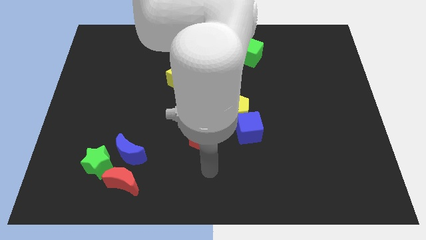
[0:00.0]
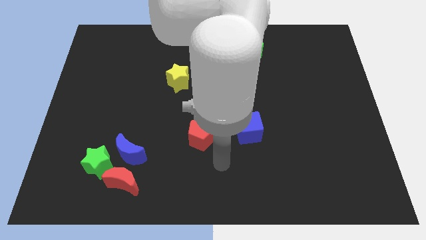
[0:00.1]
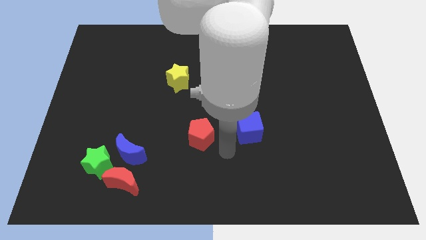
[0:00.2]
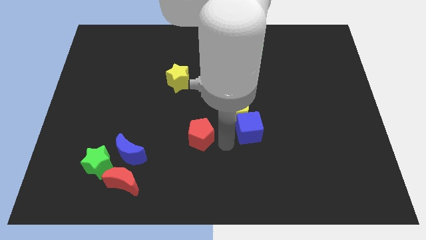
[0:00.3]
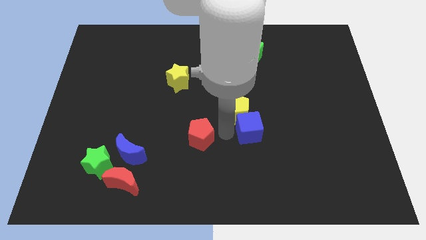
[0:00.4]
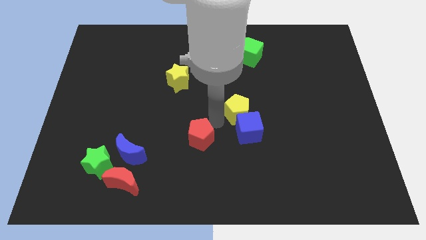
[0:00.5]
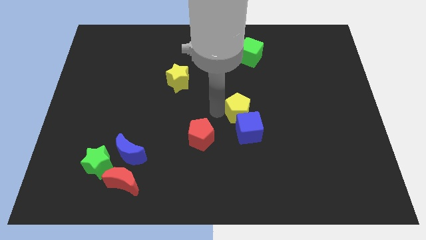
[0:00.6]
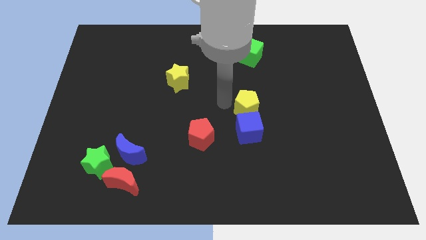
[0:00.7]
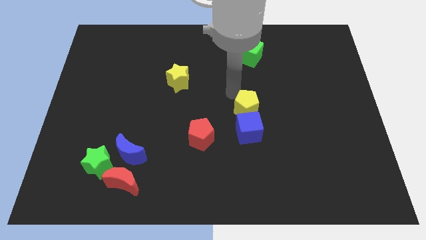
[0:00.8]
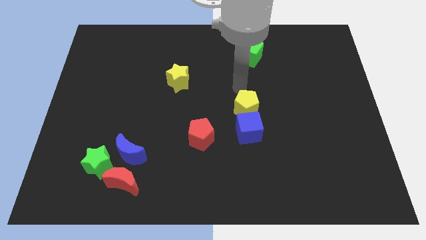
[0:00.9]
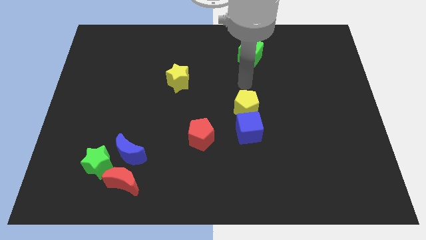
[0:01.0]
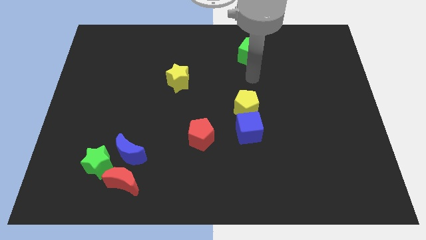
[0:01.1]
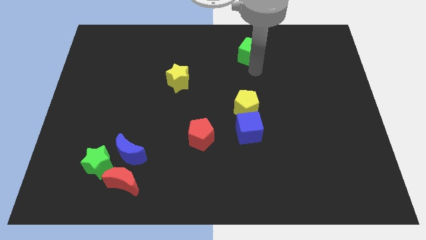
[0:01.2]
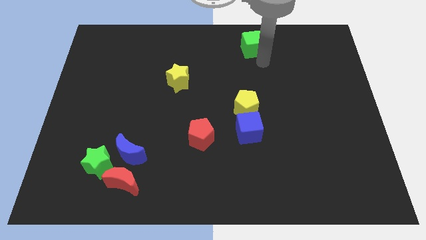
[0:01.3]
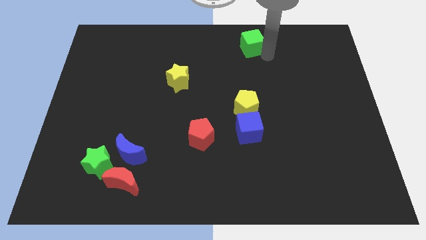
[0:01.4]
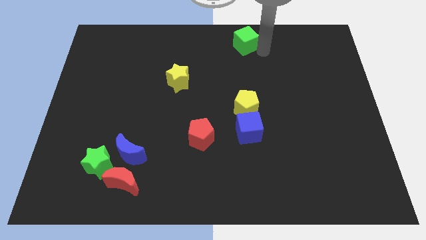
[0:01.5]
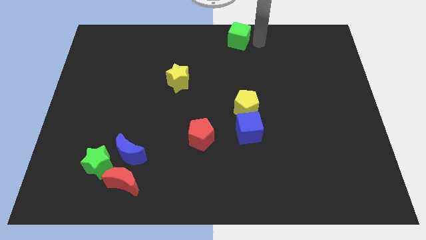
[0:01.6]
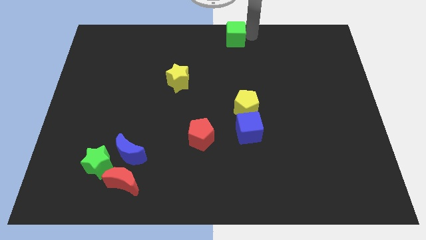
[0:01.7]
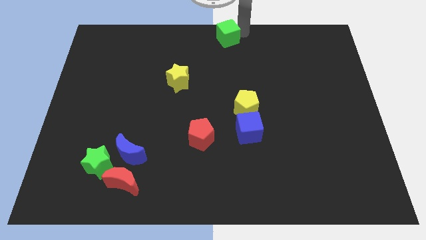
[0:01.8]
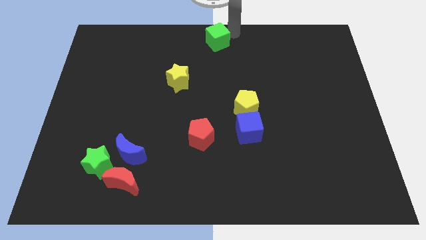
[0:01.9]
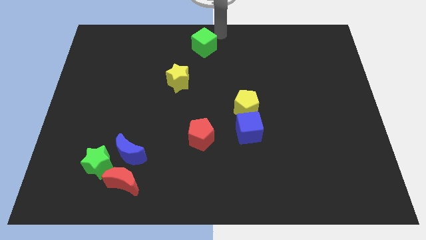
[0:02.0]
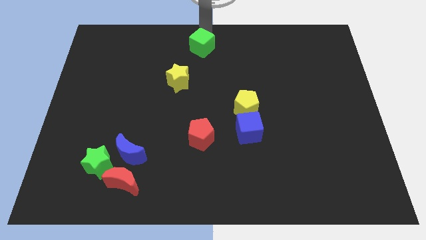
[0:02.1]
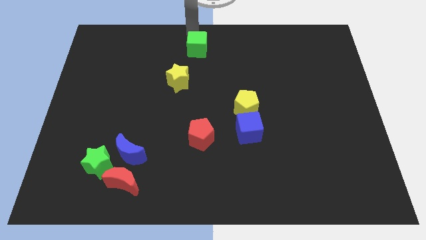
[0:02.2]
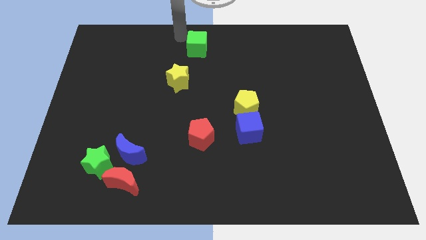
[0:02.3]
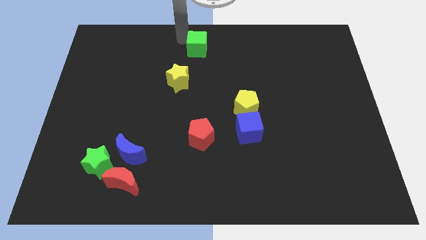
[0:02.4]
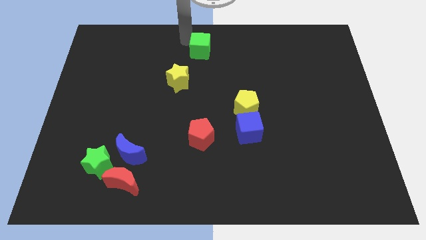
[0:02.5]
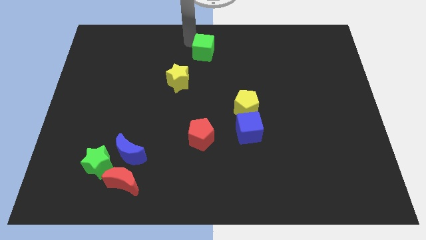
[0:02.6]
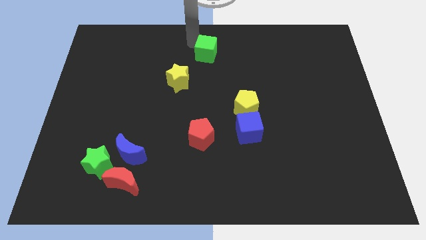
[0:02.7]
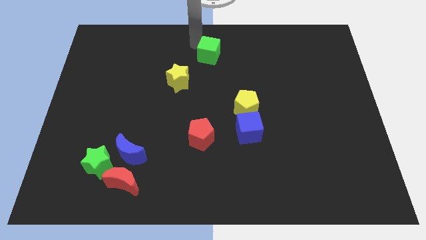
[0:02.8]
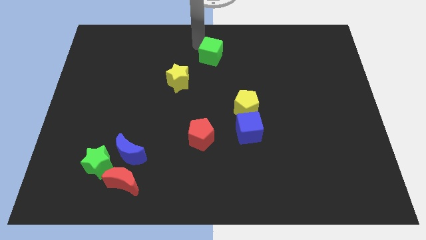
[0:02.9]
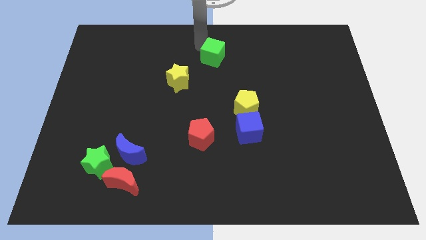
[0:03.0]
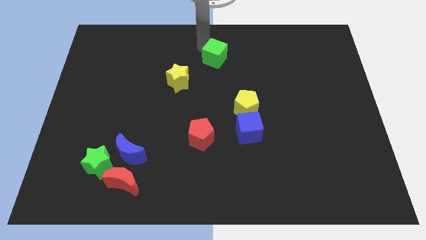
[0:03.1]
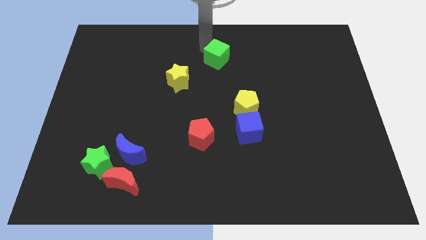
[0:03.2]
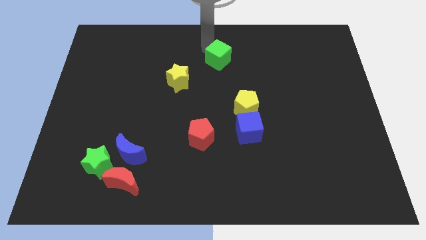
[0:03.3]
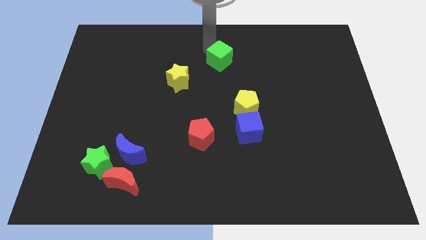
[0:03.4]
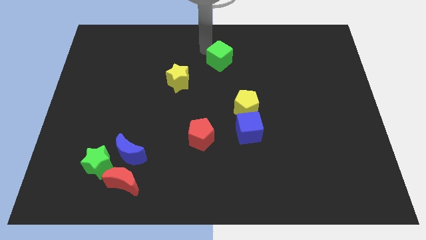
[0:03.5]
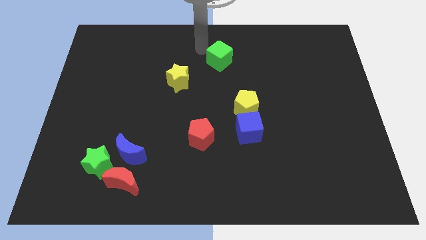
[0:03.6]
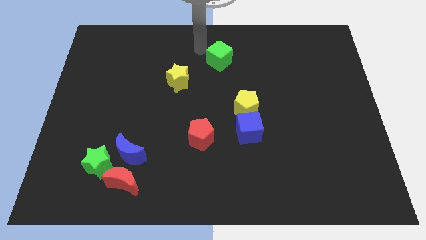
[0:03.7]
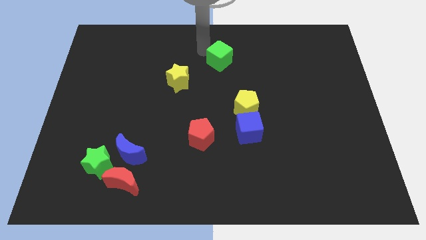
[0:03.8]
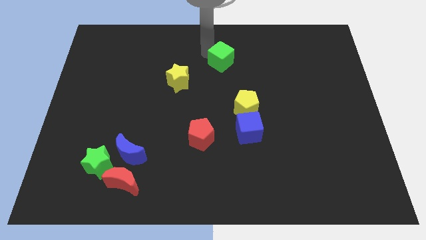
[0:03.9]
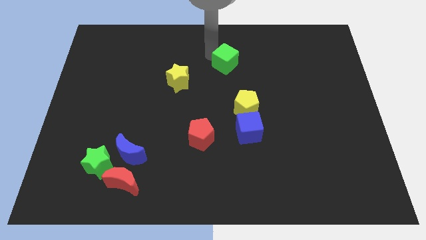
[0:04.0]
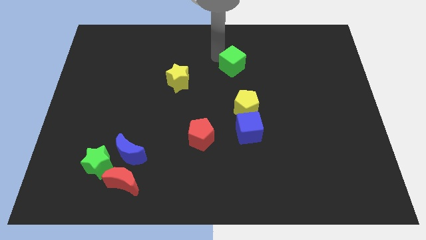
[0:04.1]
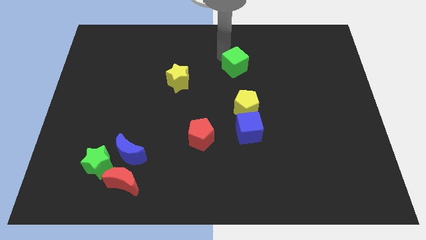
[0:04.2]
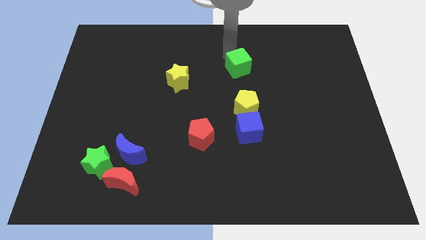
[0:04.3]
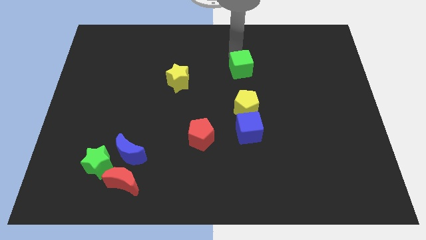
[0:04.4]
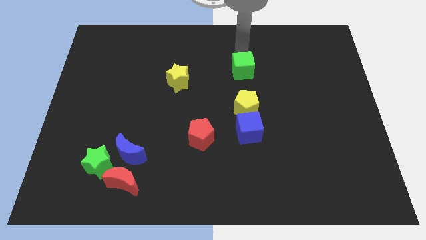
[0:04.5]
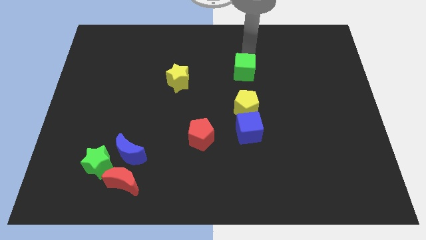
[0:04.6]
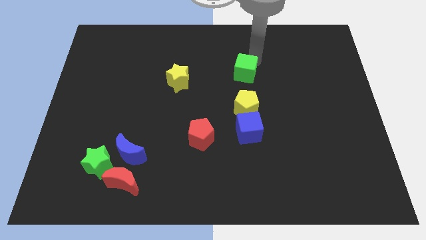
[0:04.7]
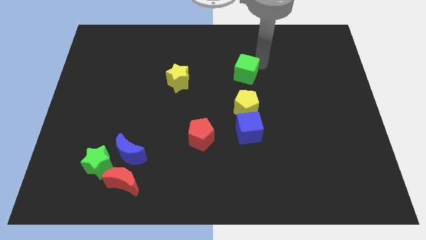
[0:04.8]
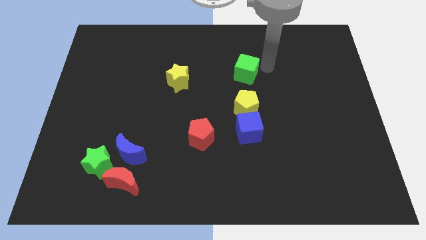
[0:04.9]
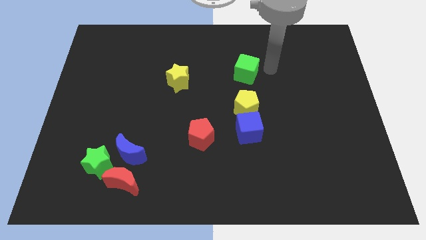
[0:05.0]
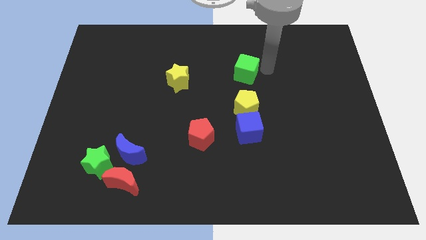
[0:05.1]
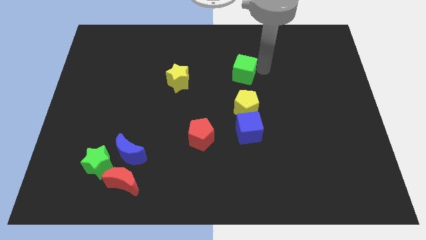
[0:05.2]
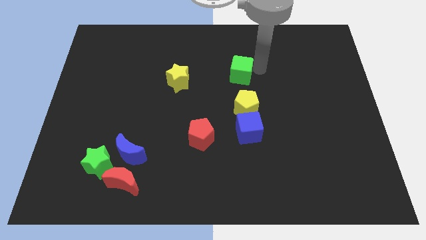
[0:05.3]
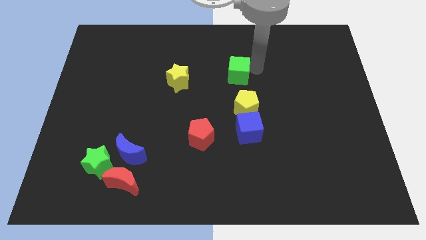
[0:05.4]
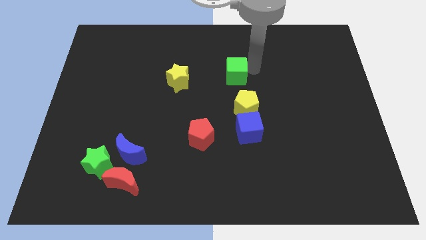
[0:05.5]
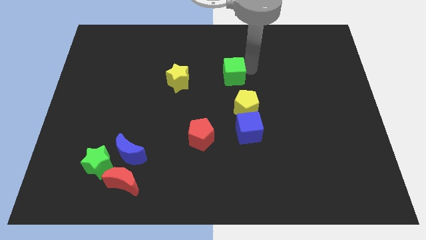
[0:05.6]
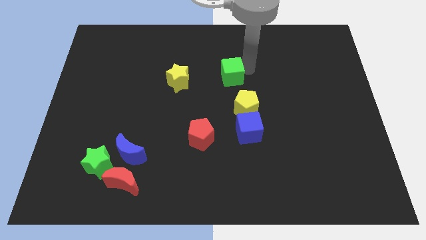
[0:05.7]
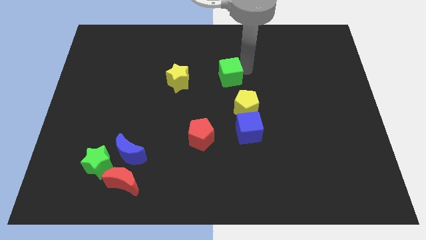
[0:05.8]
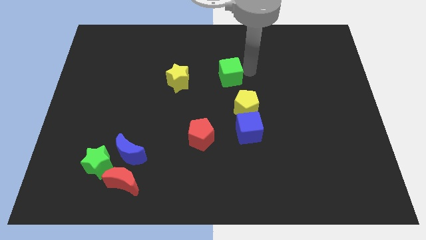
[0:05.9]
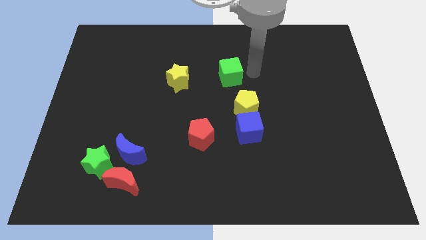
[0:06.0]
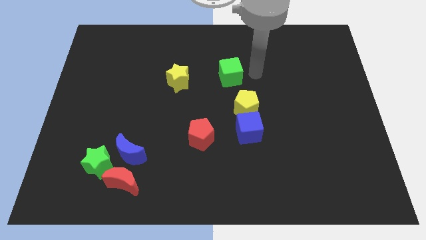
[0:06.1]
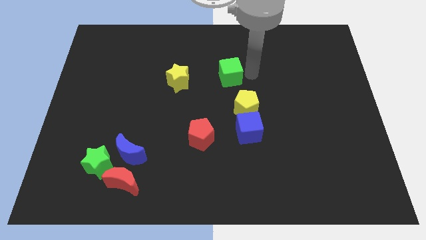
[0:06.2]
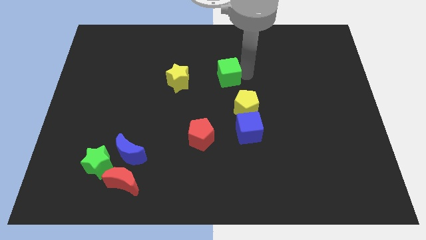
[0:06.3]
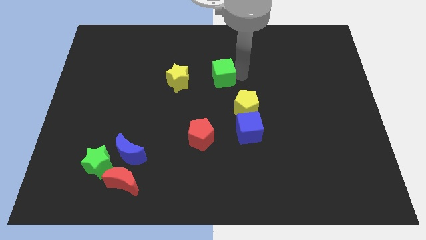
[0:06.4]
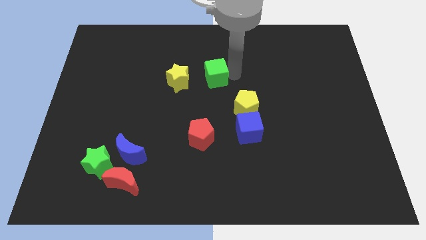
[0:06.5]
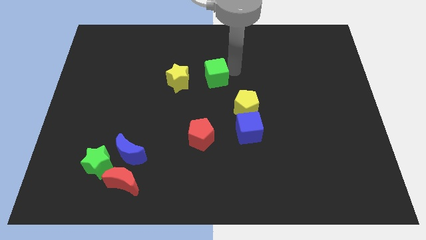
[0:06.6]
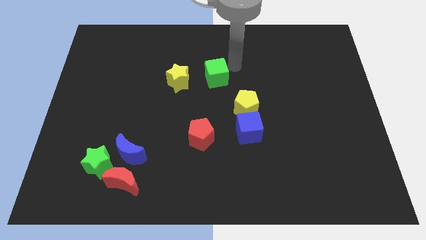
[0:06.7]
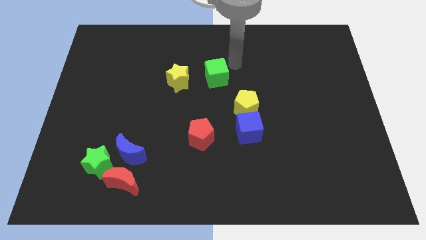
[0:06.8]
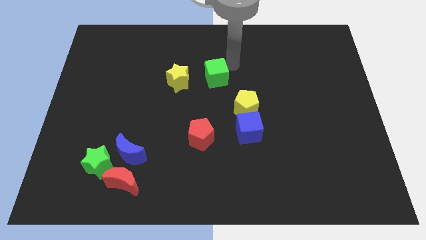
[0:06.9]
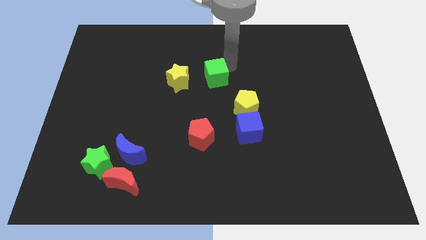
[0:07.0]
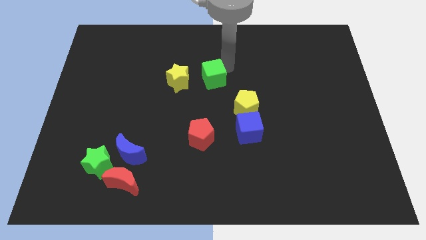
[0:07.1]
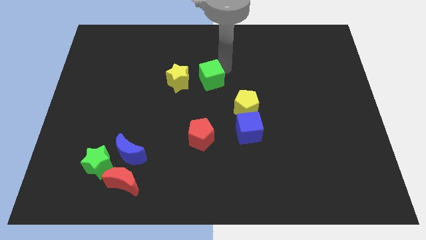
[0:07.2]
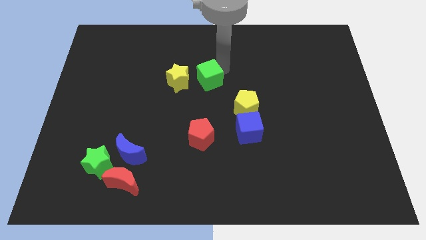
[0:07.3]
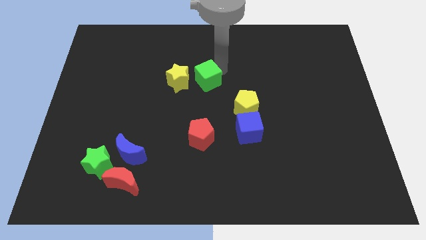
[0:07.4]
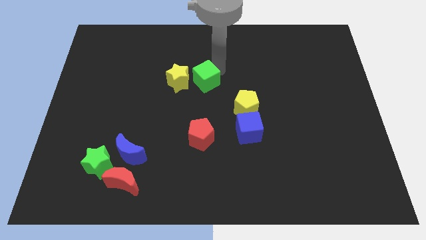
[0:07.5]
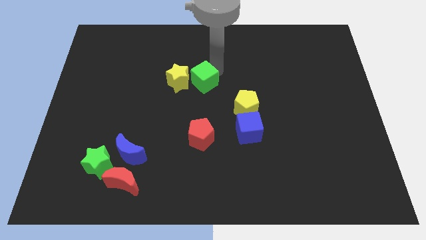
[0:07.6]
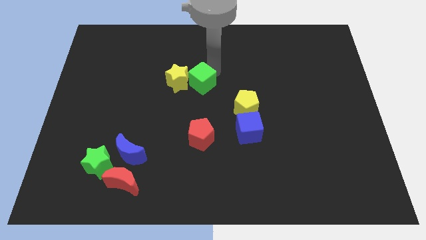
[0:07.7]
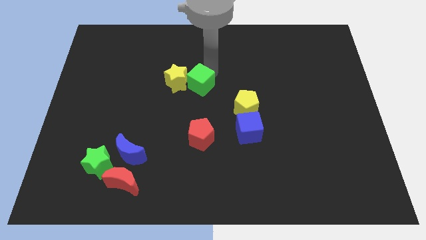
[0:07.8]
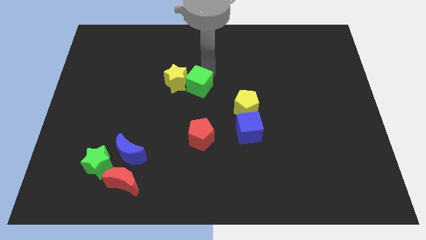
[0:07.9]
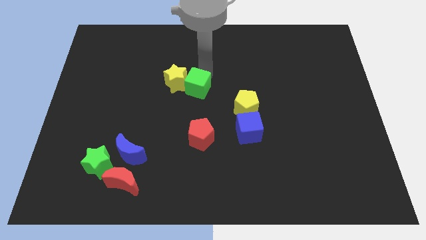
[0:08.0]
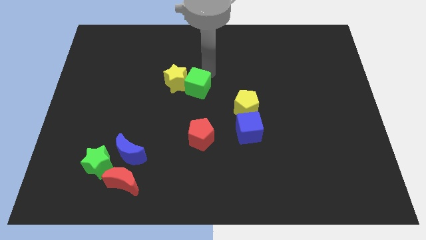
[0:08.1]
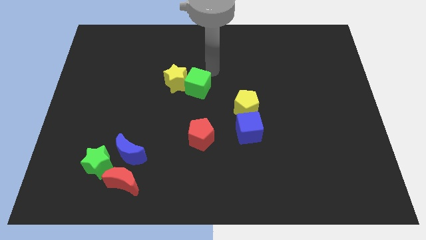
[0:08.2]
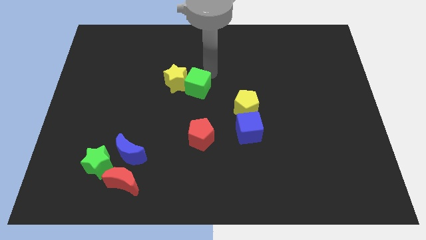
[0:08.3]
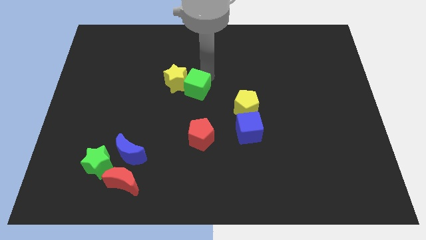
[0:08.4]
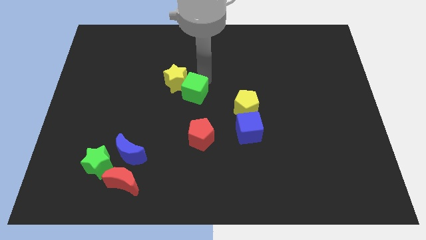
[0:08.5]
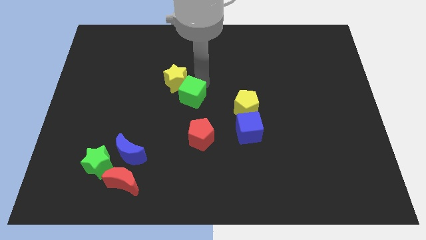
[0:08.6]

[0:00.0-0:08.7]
slide the green cube down and to the left
